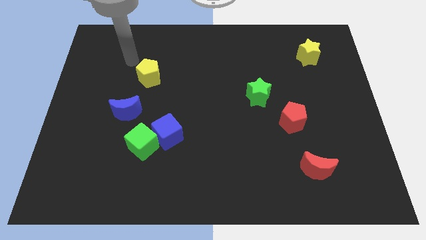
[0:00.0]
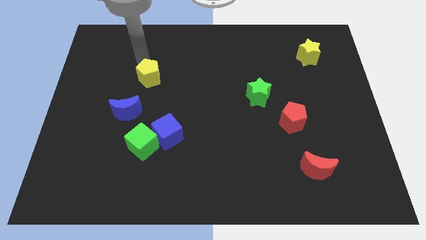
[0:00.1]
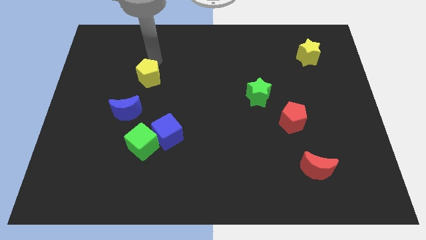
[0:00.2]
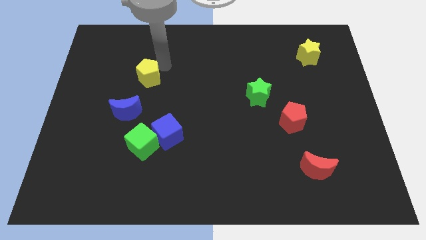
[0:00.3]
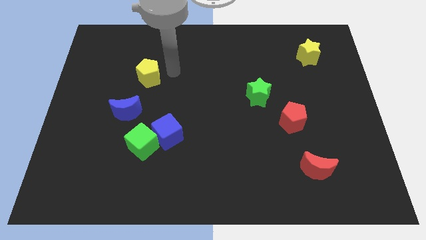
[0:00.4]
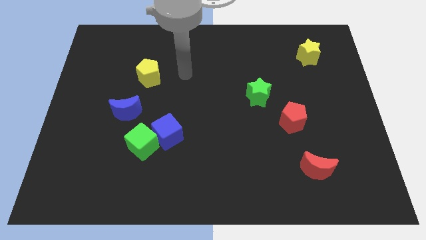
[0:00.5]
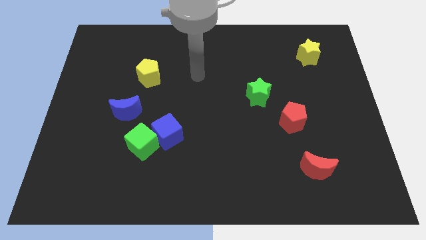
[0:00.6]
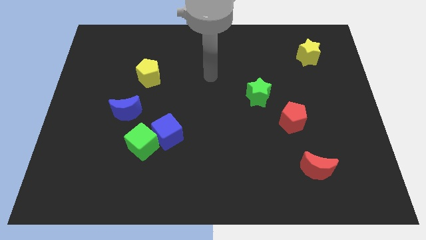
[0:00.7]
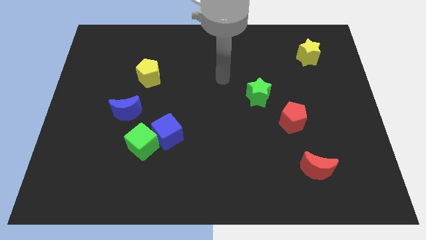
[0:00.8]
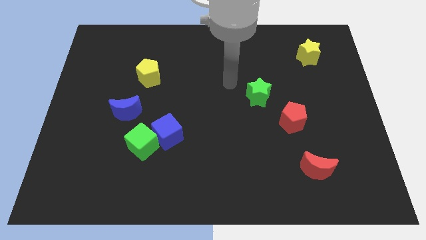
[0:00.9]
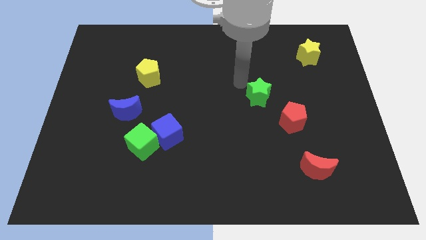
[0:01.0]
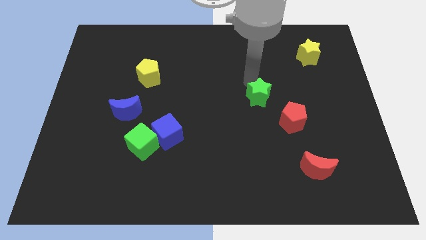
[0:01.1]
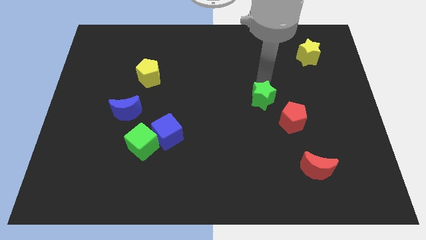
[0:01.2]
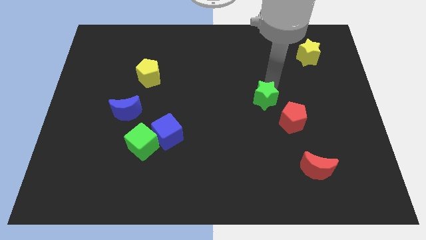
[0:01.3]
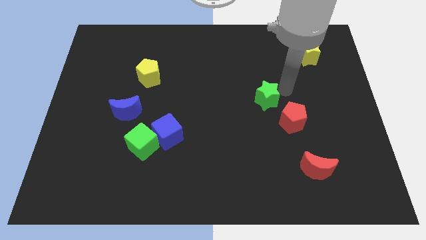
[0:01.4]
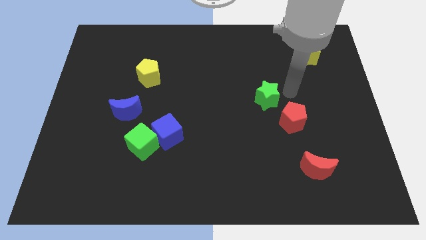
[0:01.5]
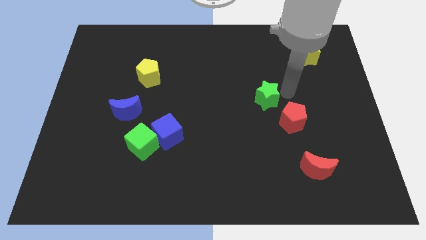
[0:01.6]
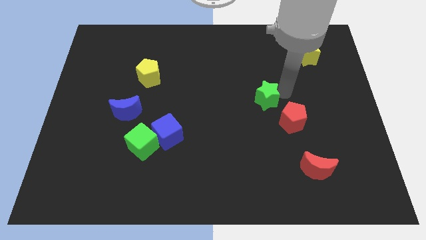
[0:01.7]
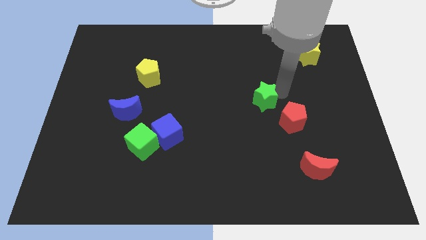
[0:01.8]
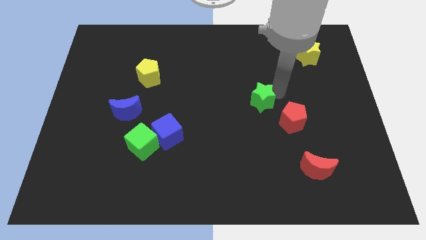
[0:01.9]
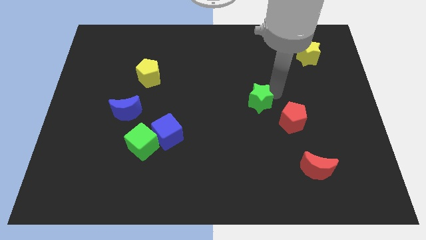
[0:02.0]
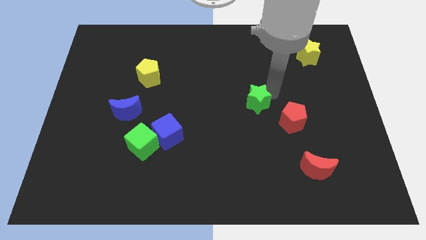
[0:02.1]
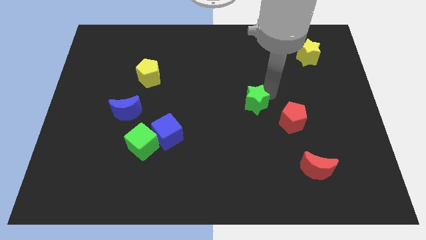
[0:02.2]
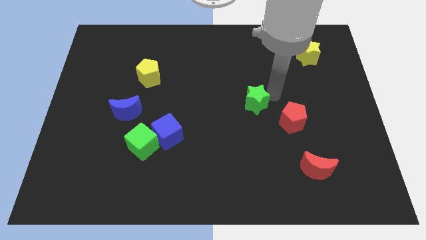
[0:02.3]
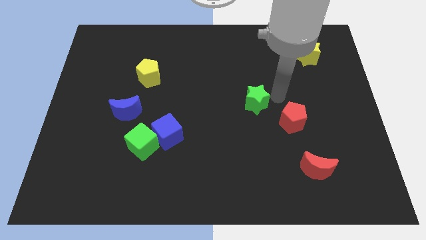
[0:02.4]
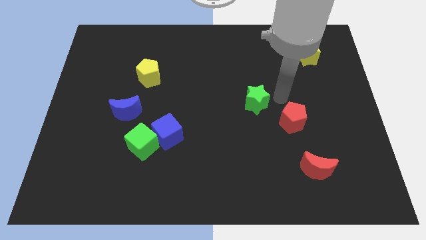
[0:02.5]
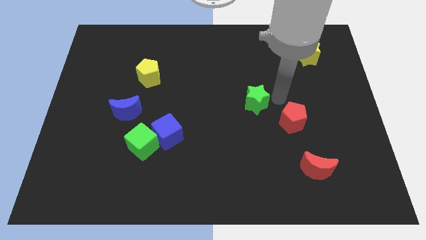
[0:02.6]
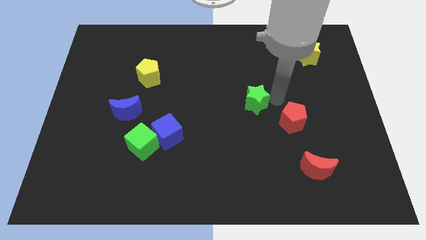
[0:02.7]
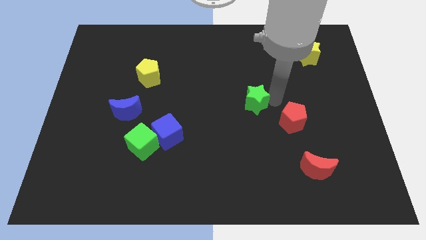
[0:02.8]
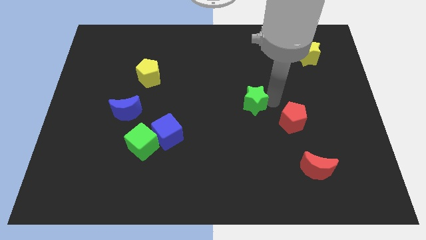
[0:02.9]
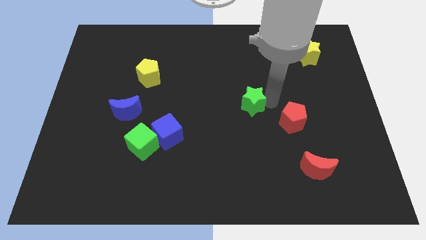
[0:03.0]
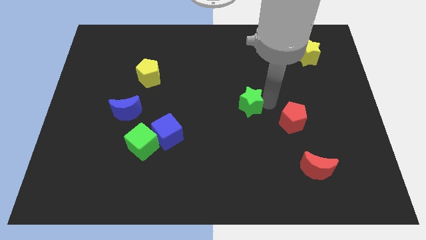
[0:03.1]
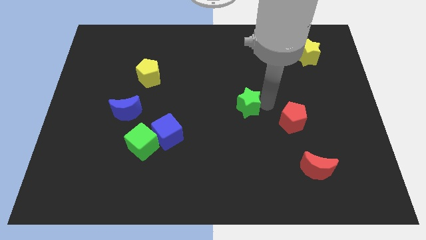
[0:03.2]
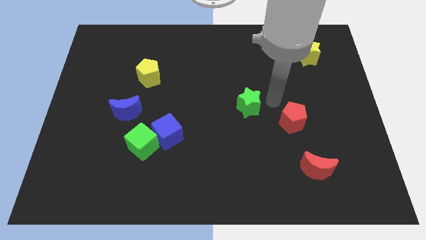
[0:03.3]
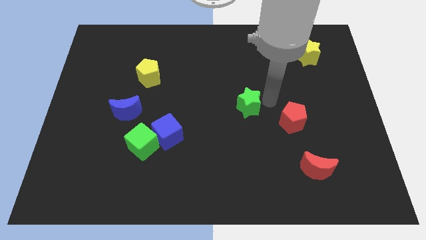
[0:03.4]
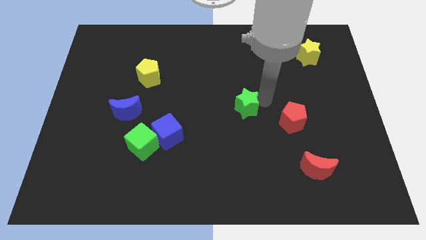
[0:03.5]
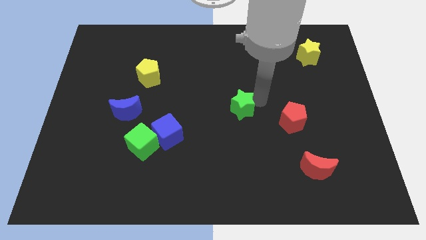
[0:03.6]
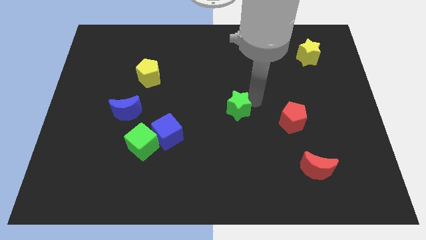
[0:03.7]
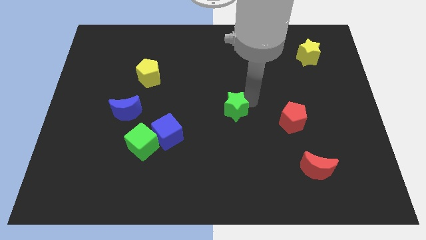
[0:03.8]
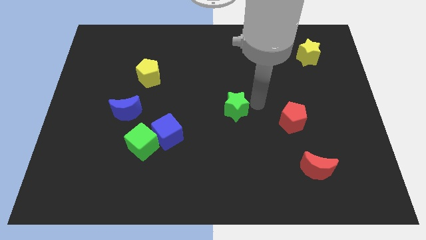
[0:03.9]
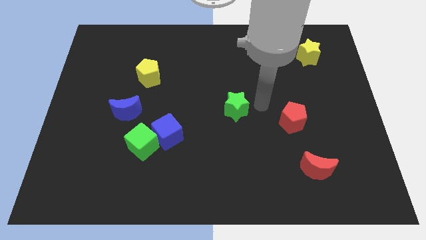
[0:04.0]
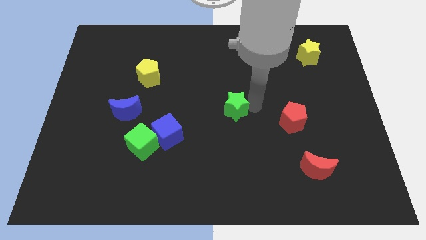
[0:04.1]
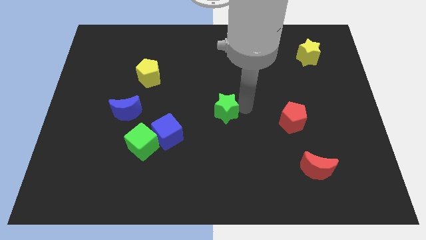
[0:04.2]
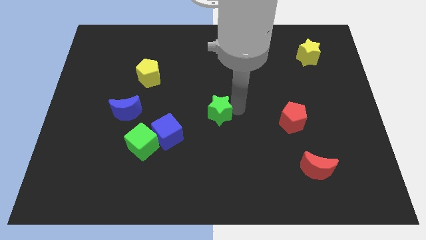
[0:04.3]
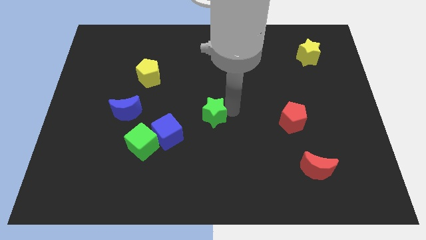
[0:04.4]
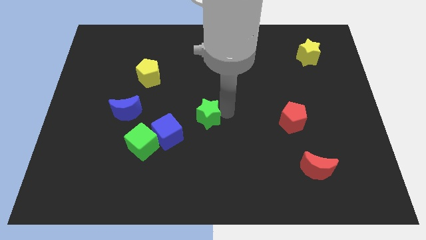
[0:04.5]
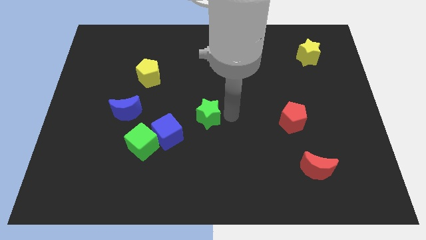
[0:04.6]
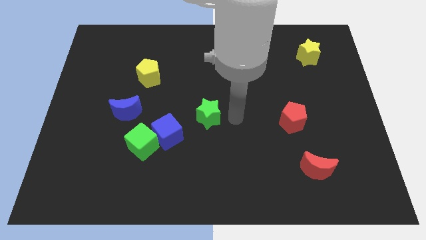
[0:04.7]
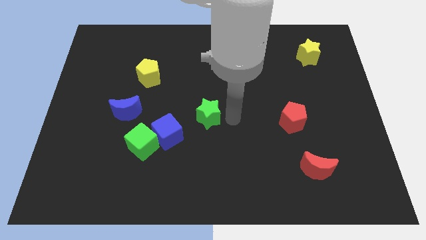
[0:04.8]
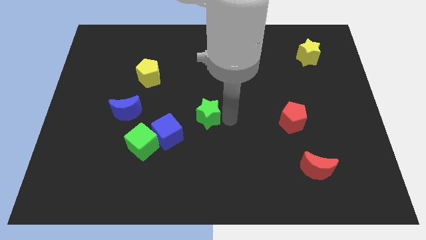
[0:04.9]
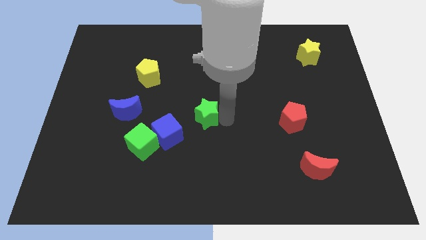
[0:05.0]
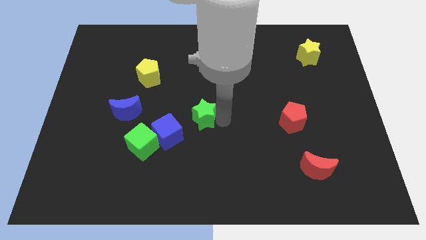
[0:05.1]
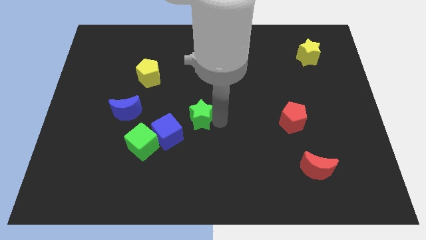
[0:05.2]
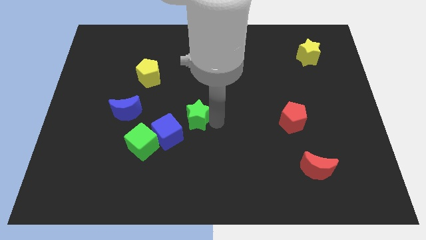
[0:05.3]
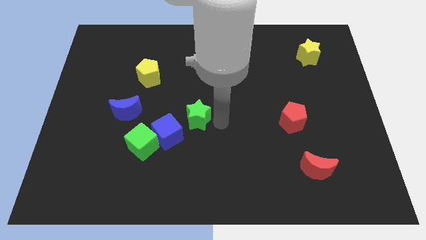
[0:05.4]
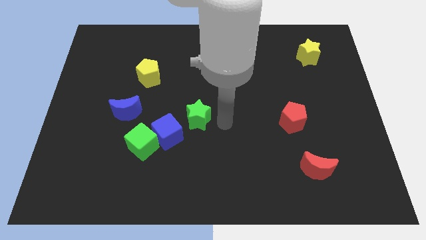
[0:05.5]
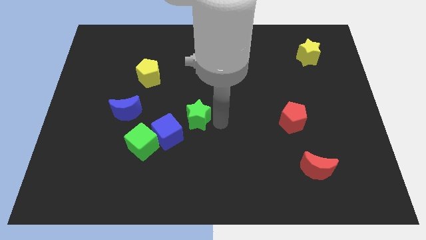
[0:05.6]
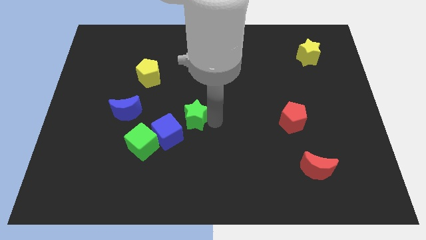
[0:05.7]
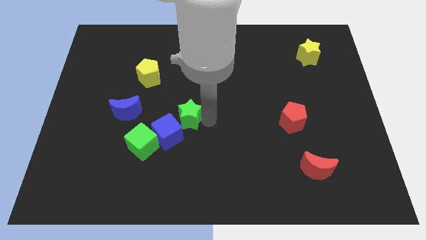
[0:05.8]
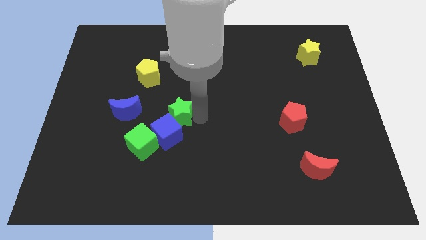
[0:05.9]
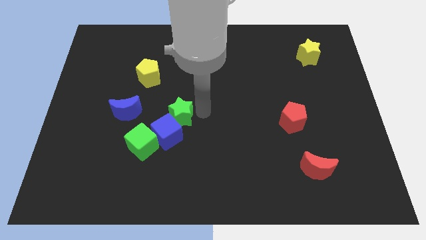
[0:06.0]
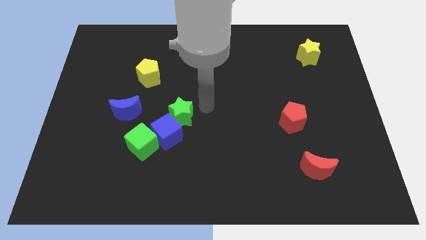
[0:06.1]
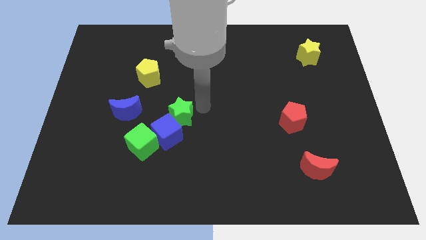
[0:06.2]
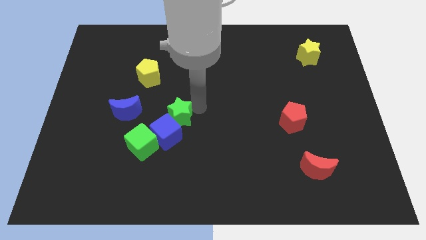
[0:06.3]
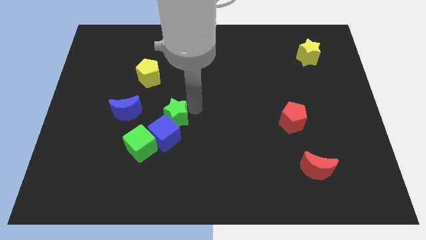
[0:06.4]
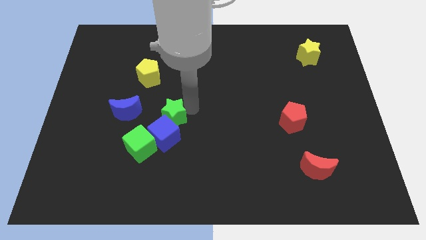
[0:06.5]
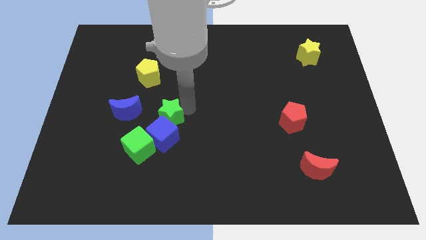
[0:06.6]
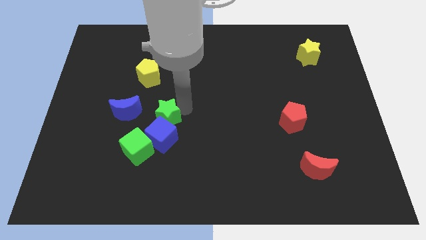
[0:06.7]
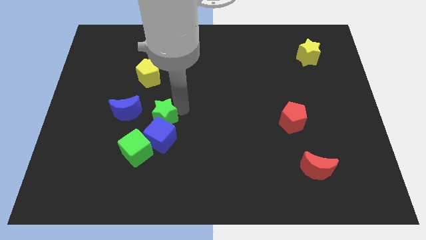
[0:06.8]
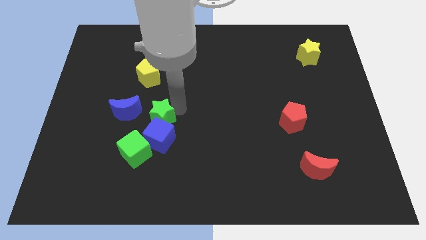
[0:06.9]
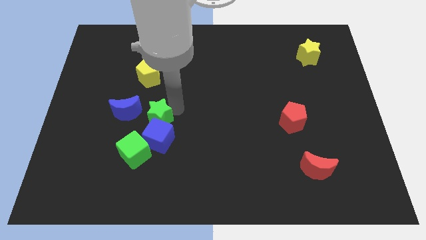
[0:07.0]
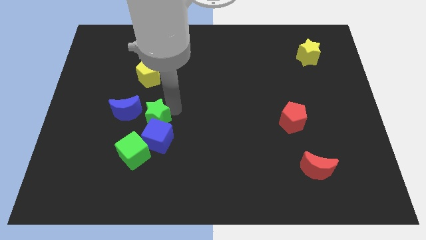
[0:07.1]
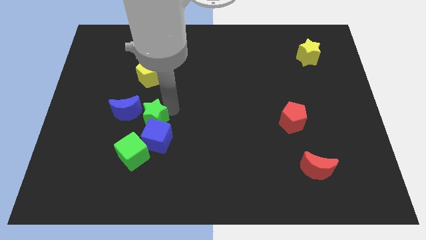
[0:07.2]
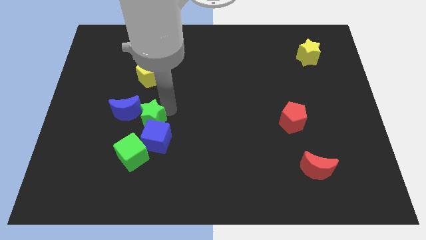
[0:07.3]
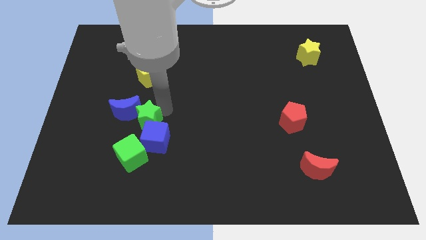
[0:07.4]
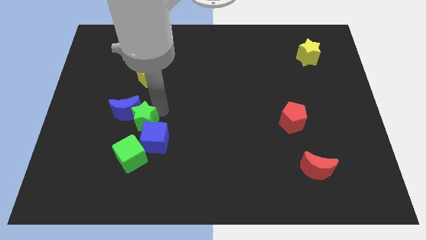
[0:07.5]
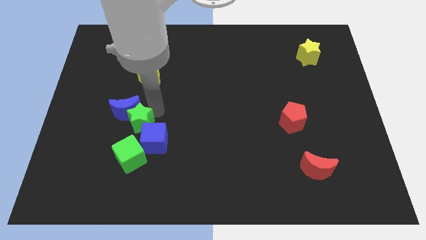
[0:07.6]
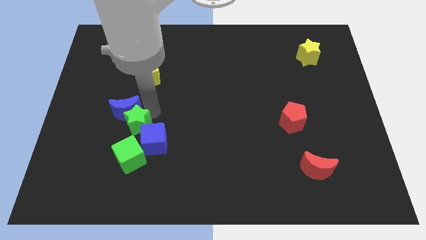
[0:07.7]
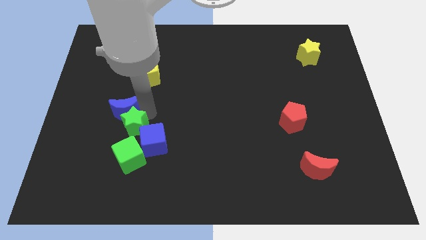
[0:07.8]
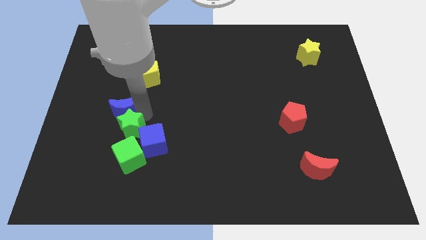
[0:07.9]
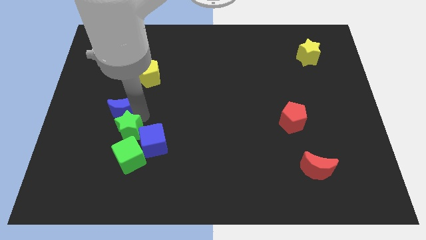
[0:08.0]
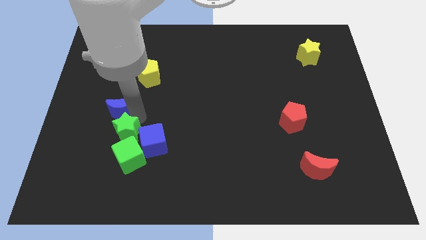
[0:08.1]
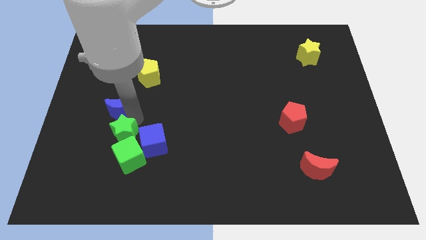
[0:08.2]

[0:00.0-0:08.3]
put the green star next to the green cube
